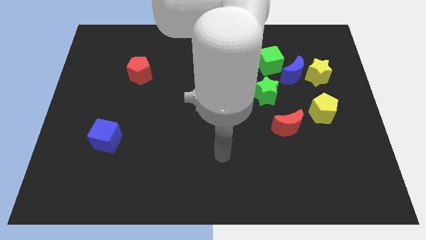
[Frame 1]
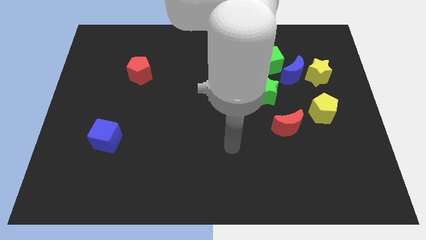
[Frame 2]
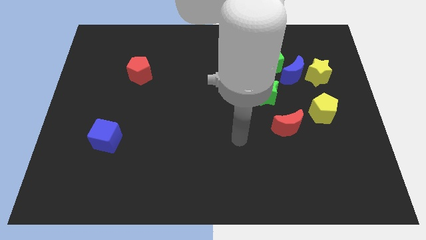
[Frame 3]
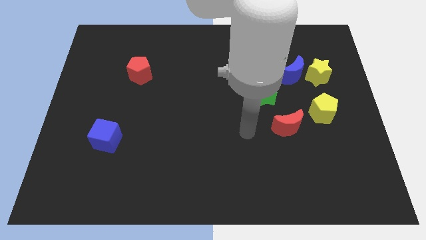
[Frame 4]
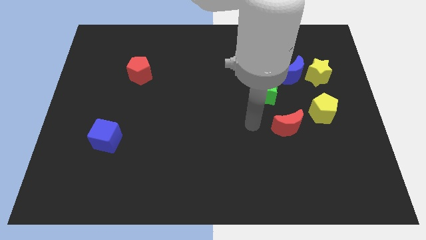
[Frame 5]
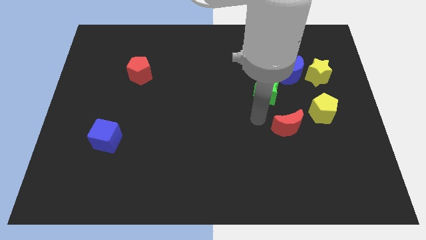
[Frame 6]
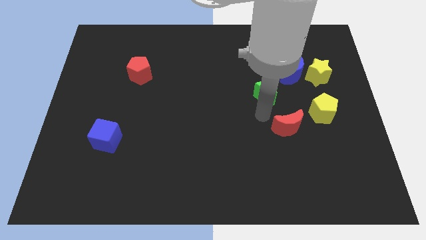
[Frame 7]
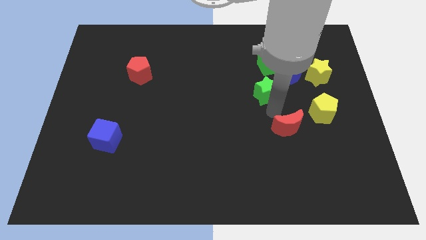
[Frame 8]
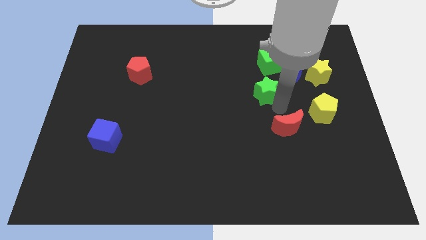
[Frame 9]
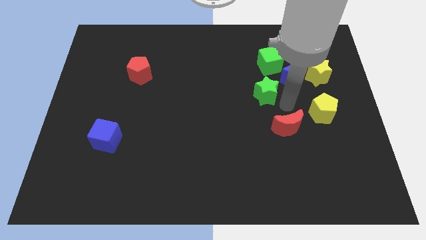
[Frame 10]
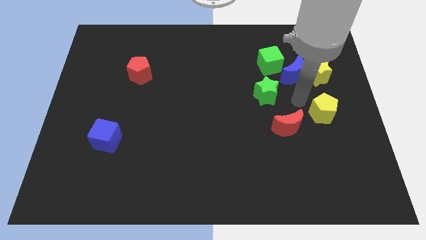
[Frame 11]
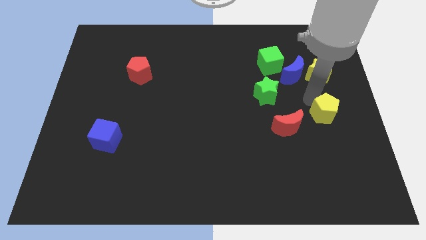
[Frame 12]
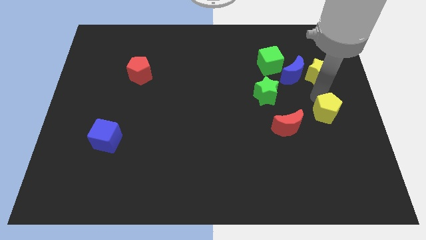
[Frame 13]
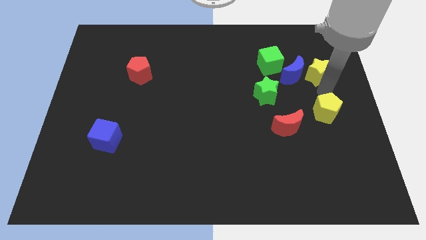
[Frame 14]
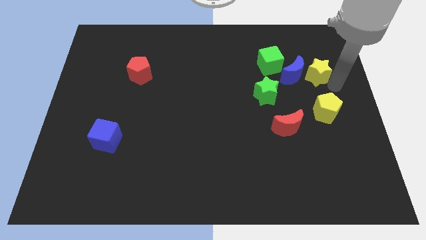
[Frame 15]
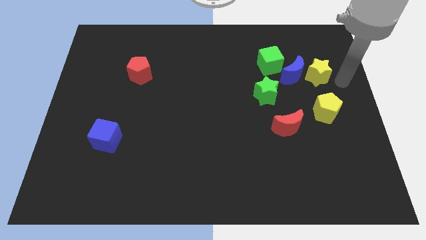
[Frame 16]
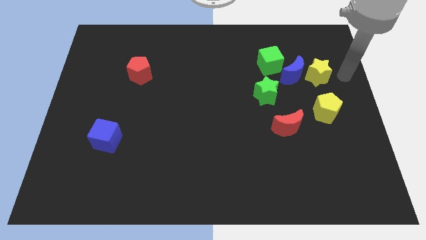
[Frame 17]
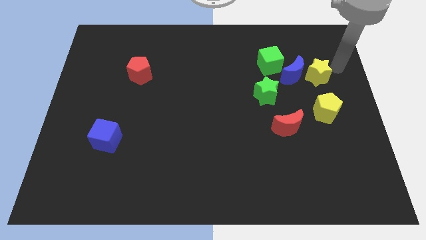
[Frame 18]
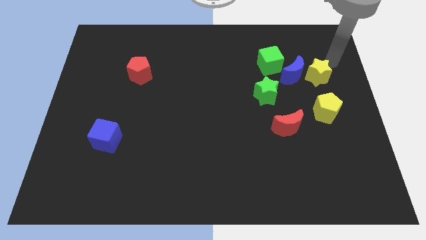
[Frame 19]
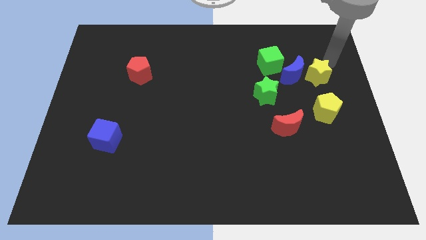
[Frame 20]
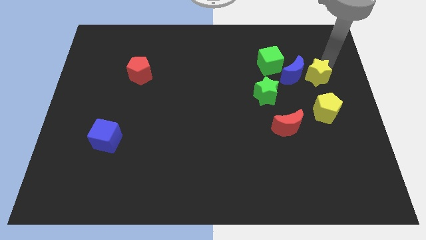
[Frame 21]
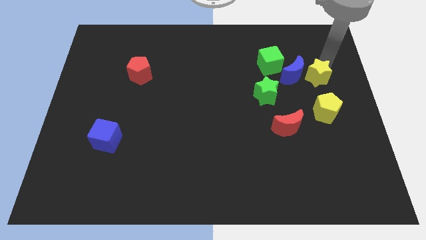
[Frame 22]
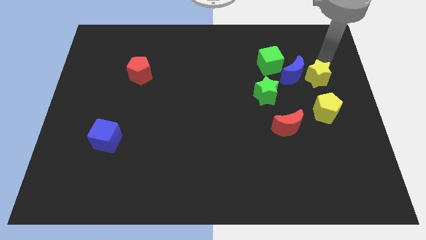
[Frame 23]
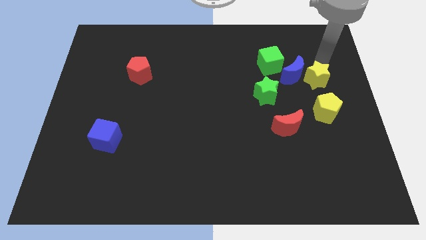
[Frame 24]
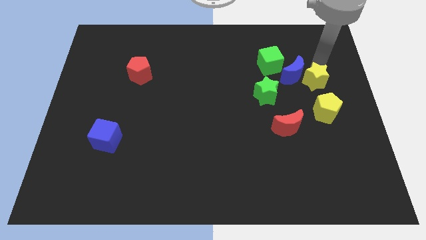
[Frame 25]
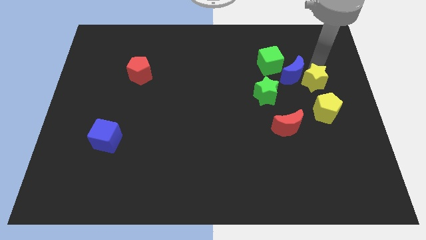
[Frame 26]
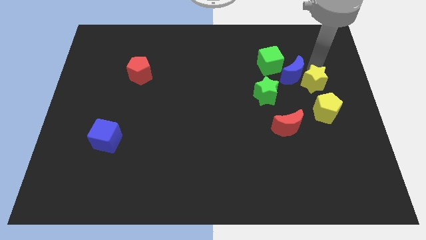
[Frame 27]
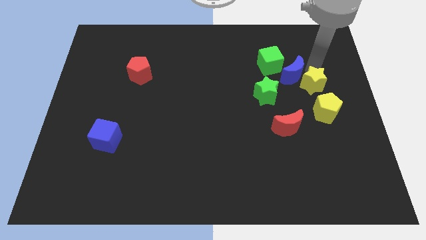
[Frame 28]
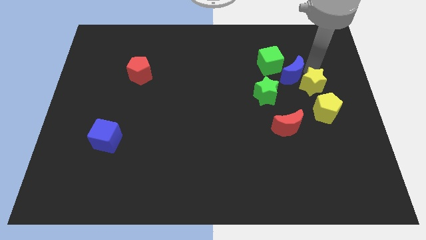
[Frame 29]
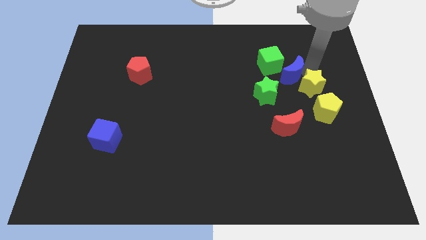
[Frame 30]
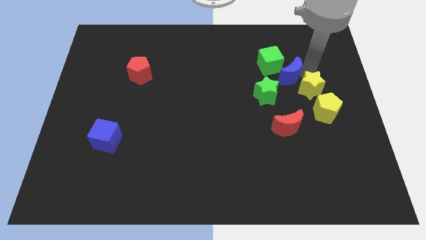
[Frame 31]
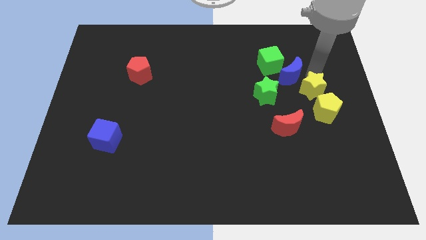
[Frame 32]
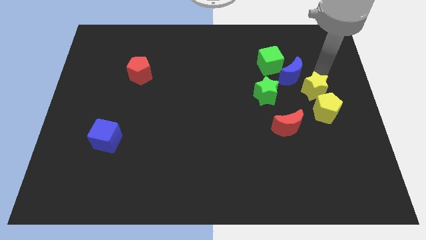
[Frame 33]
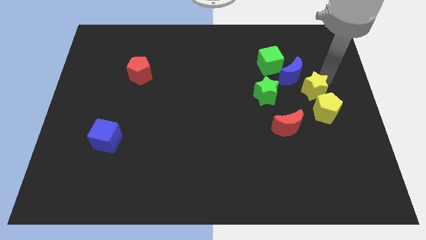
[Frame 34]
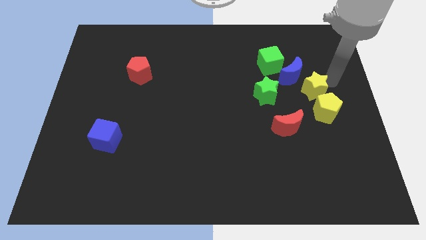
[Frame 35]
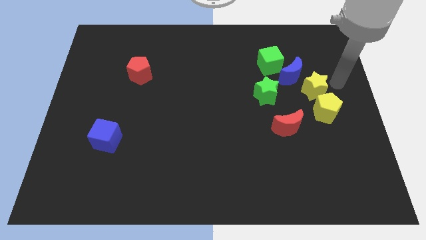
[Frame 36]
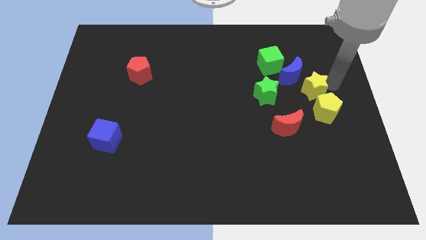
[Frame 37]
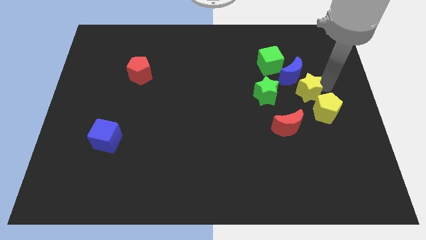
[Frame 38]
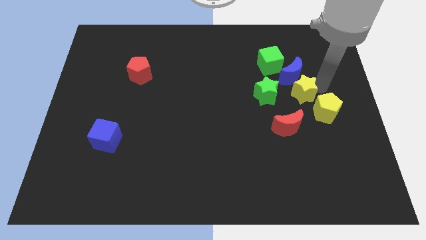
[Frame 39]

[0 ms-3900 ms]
slightly push the yellow star down and then to the left

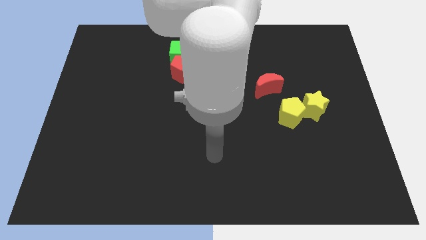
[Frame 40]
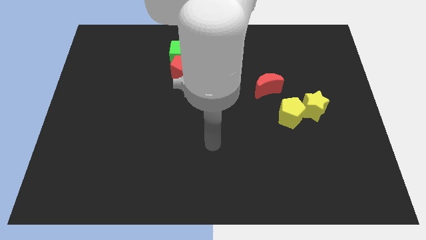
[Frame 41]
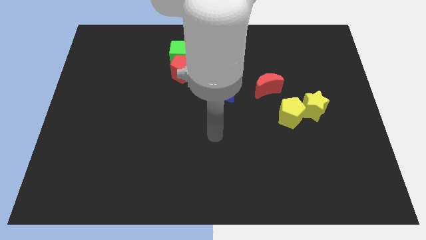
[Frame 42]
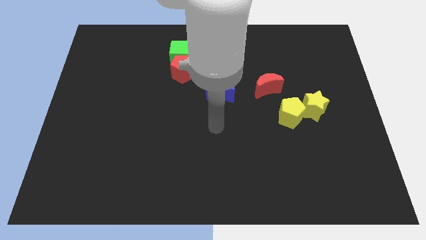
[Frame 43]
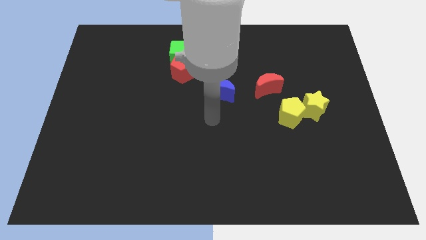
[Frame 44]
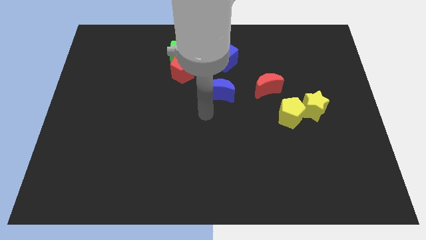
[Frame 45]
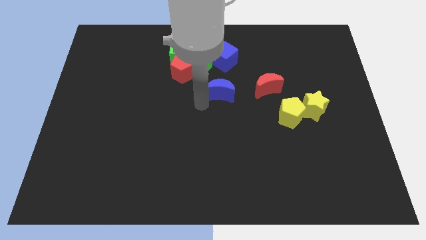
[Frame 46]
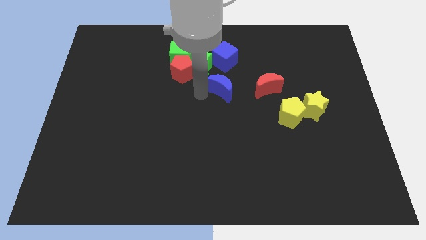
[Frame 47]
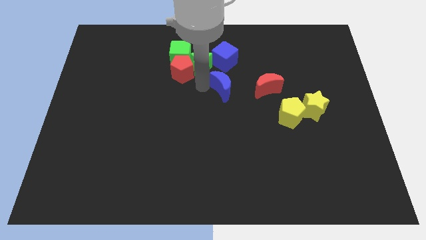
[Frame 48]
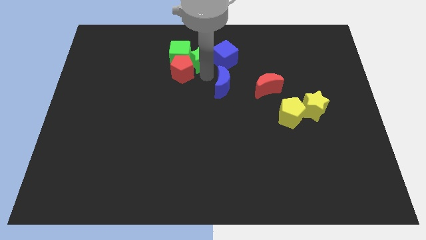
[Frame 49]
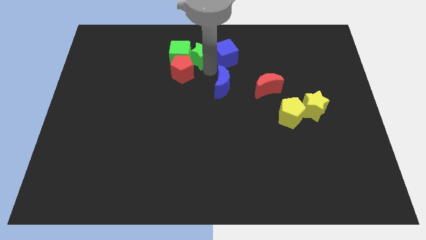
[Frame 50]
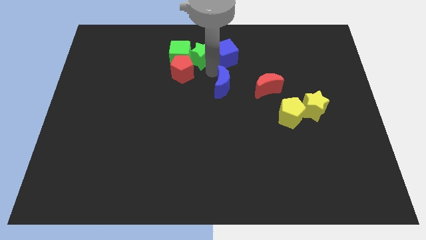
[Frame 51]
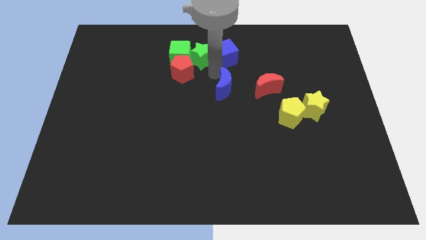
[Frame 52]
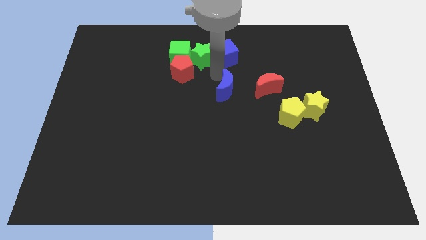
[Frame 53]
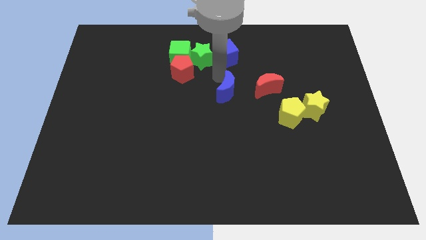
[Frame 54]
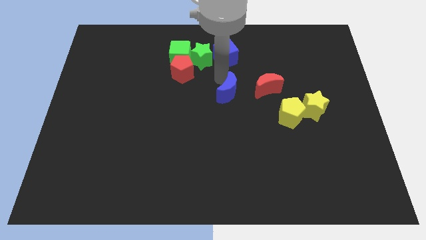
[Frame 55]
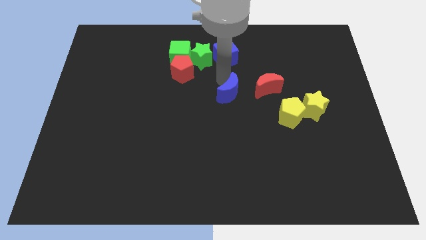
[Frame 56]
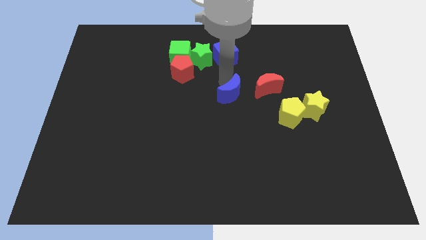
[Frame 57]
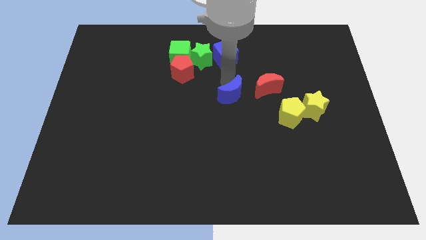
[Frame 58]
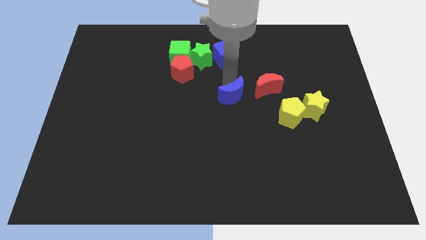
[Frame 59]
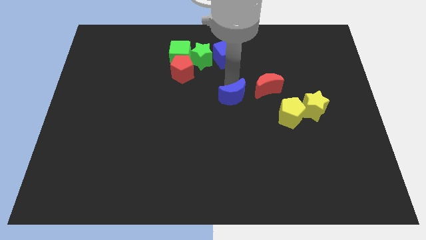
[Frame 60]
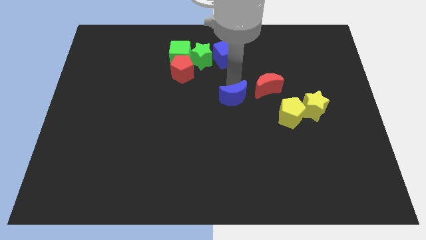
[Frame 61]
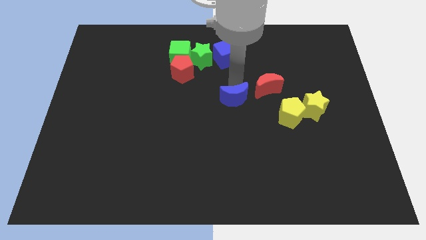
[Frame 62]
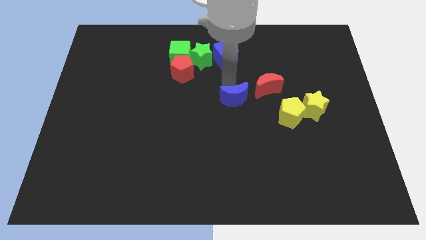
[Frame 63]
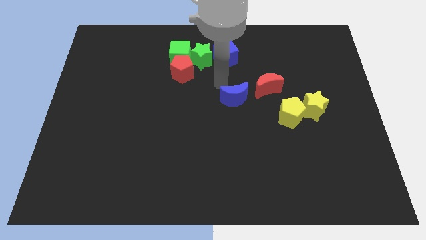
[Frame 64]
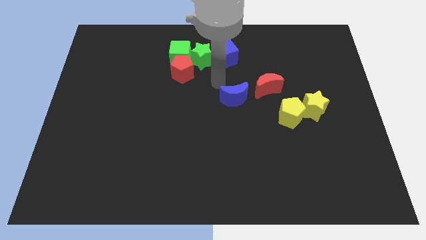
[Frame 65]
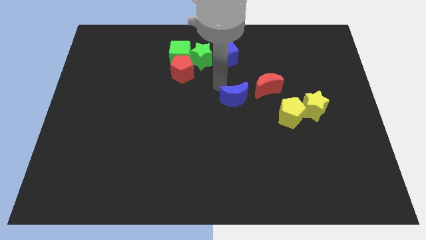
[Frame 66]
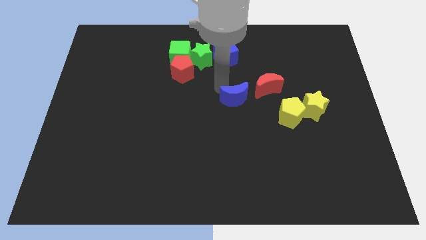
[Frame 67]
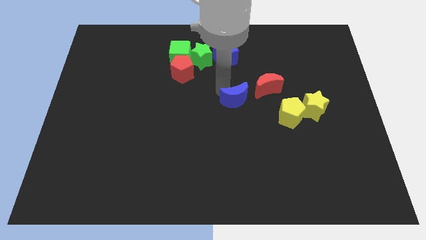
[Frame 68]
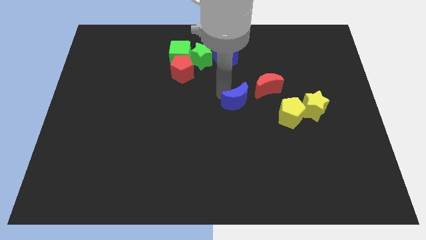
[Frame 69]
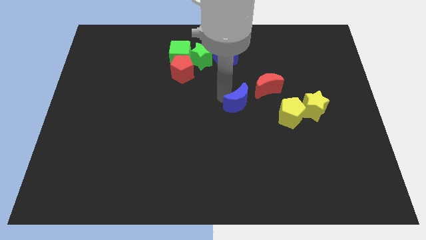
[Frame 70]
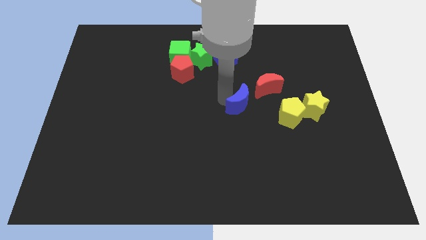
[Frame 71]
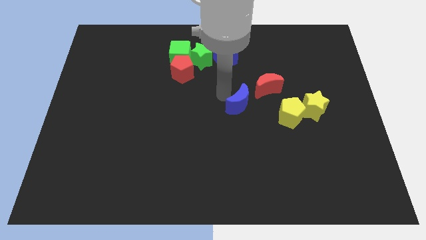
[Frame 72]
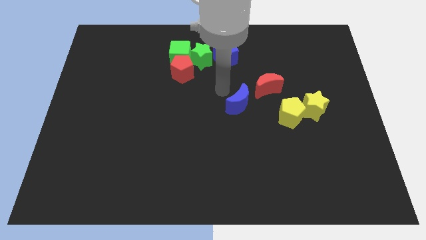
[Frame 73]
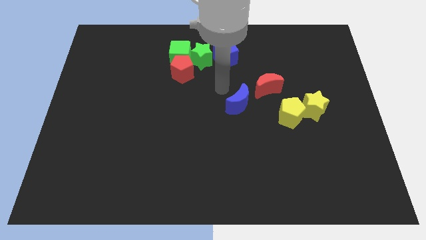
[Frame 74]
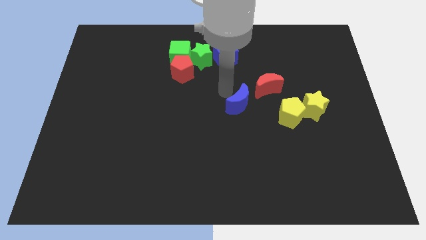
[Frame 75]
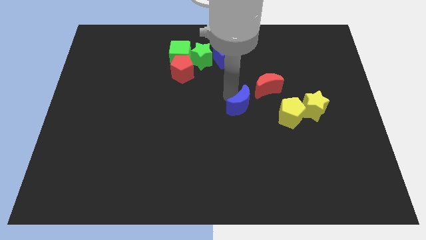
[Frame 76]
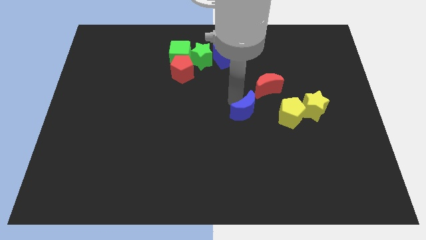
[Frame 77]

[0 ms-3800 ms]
slide the blue moon downwards and right a little bit
